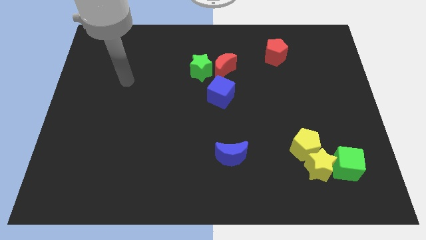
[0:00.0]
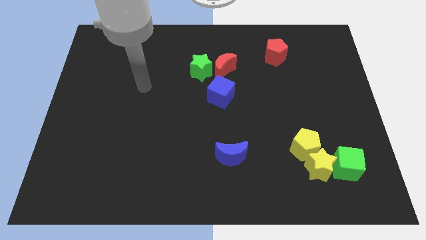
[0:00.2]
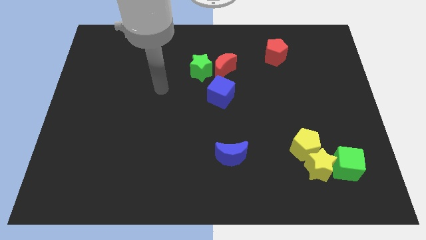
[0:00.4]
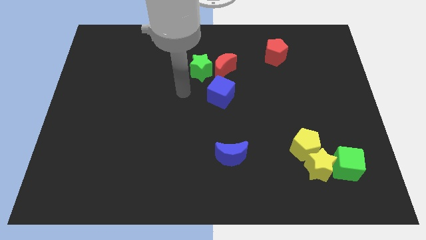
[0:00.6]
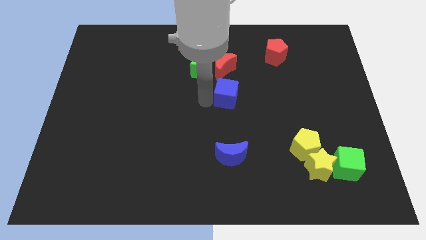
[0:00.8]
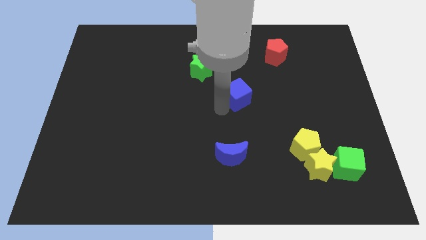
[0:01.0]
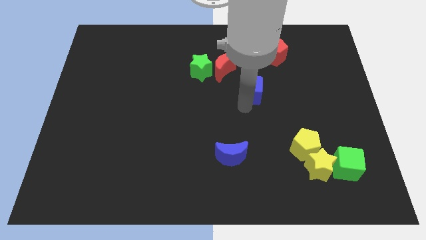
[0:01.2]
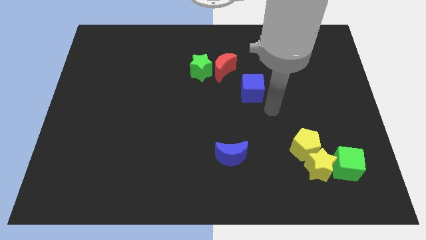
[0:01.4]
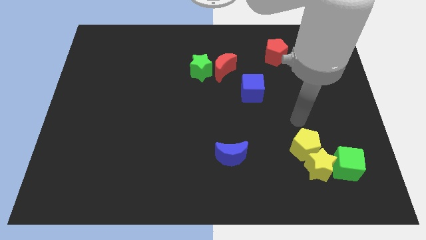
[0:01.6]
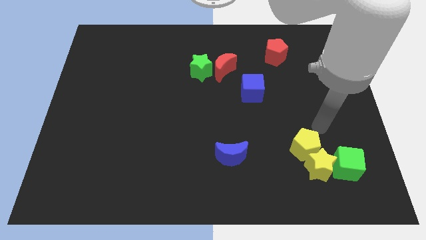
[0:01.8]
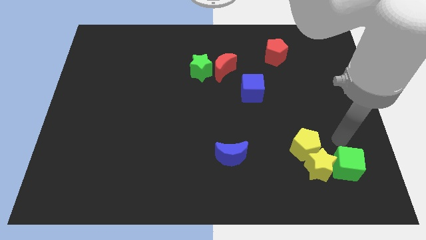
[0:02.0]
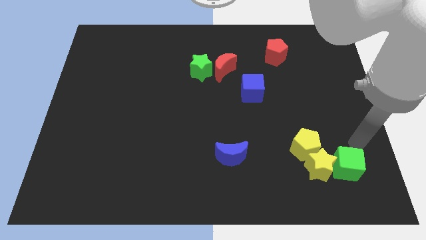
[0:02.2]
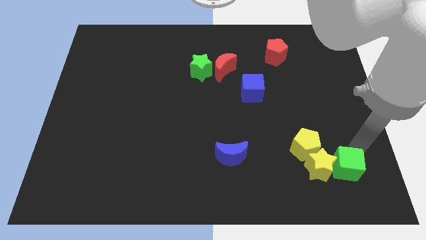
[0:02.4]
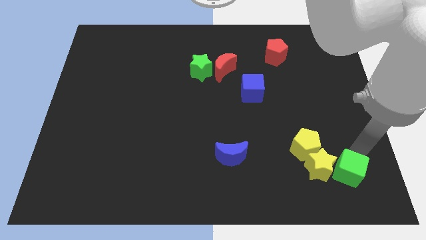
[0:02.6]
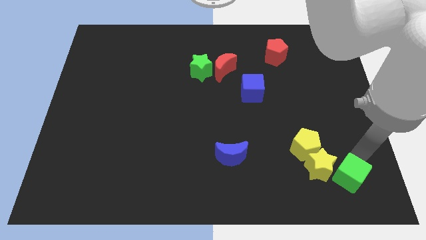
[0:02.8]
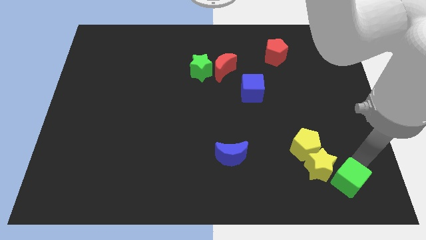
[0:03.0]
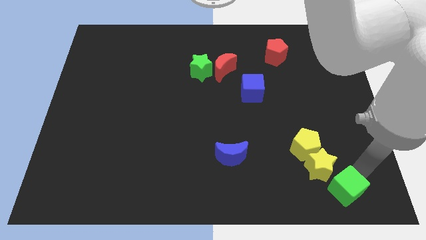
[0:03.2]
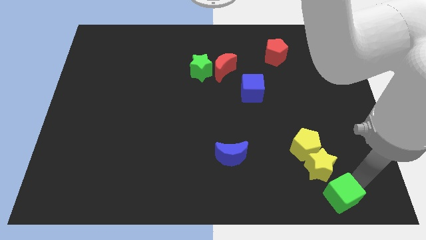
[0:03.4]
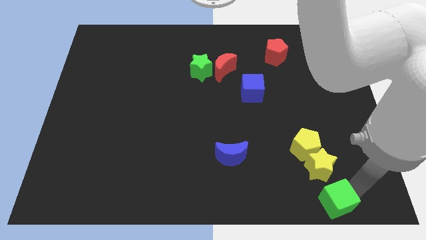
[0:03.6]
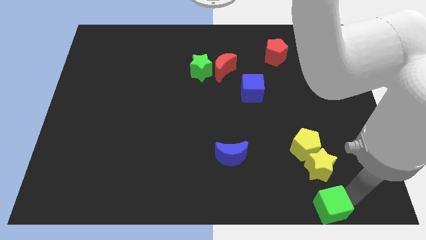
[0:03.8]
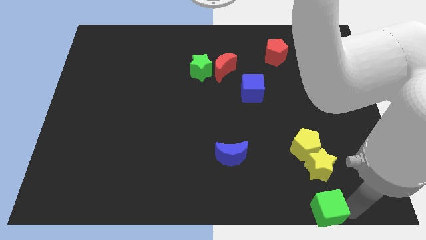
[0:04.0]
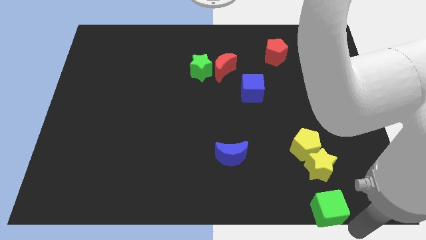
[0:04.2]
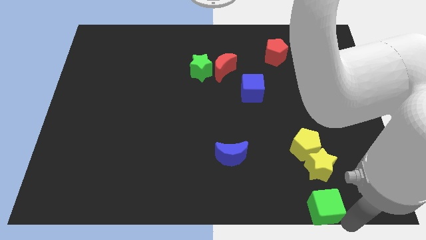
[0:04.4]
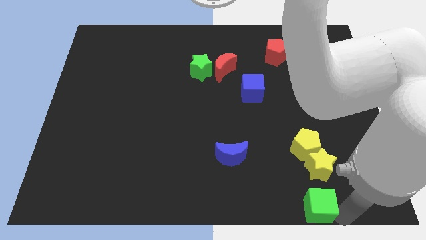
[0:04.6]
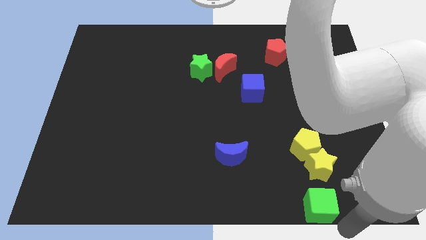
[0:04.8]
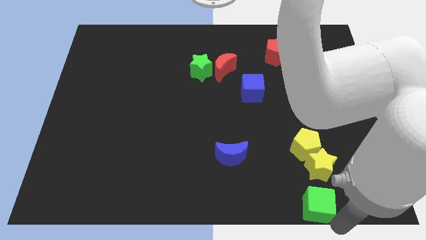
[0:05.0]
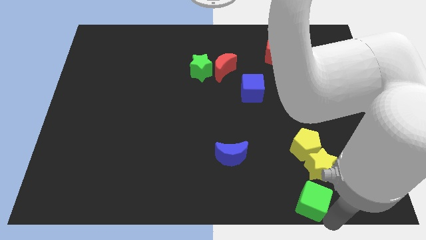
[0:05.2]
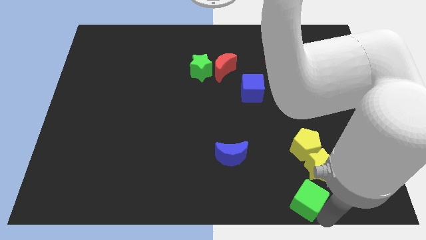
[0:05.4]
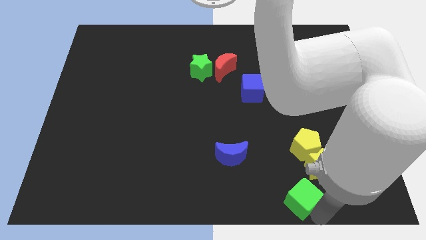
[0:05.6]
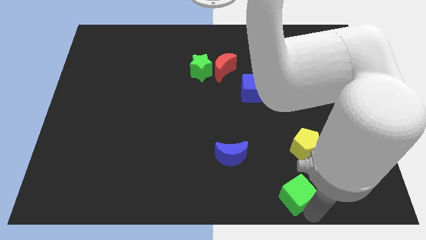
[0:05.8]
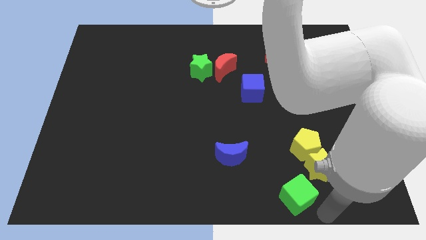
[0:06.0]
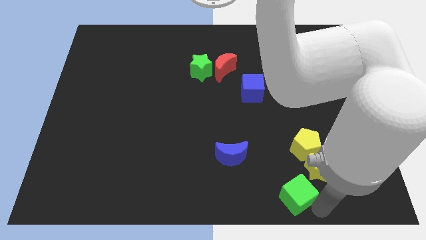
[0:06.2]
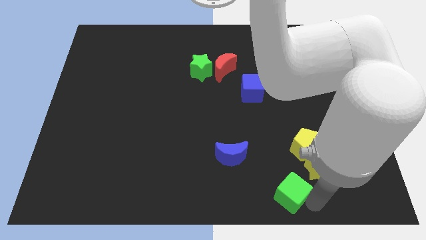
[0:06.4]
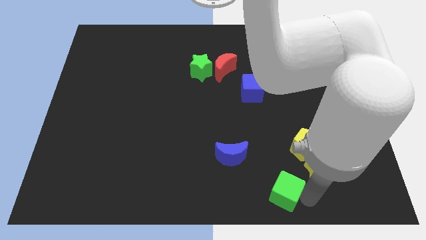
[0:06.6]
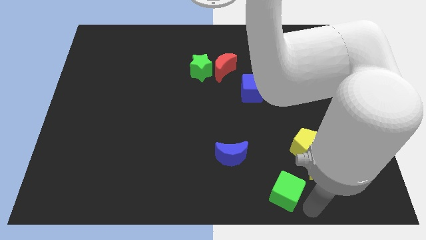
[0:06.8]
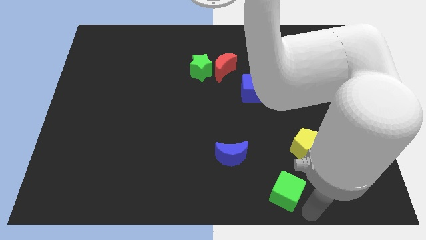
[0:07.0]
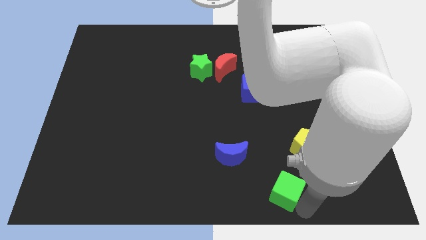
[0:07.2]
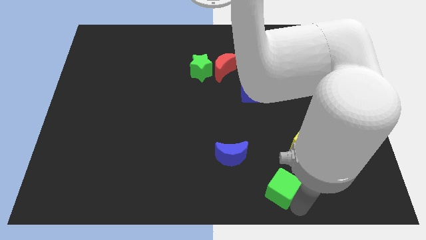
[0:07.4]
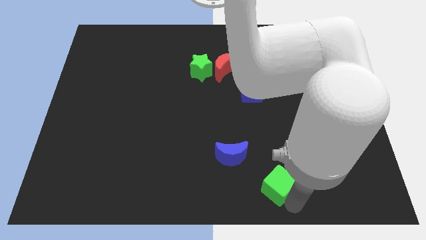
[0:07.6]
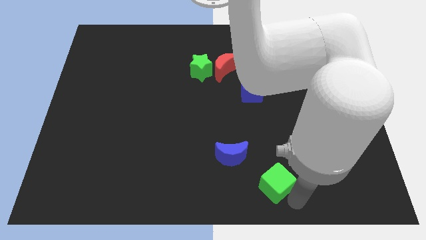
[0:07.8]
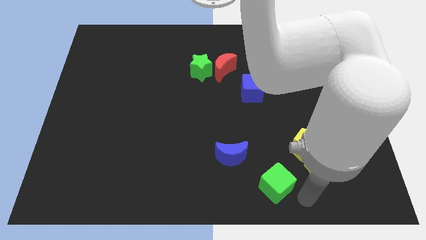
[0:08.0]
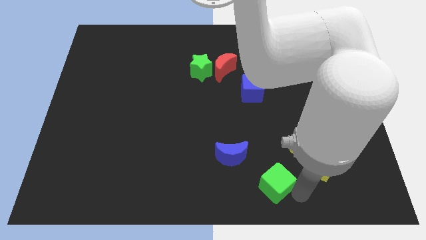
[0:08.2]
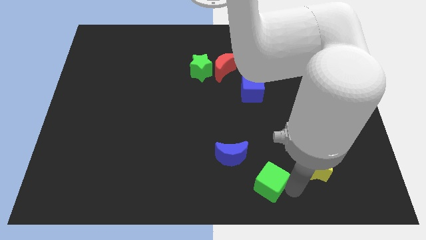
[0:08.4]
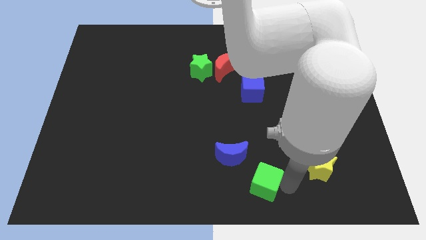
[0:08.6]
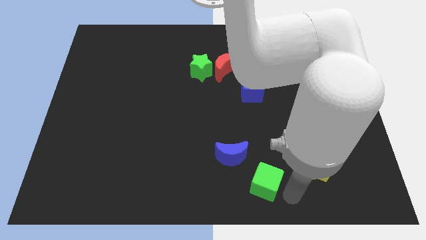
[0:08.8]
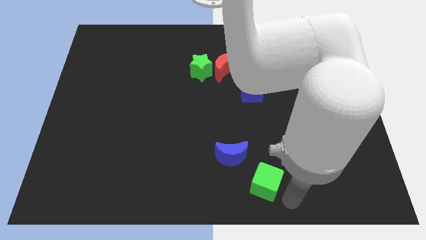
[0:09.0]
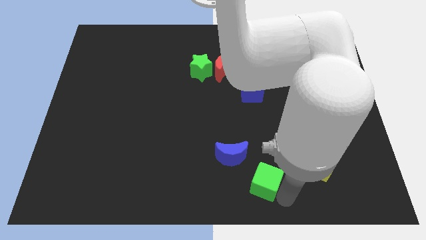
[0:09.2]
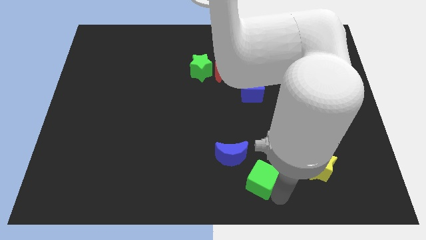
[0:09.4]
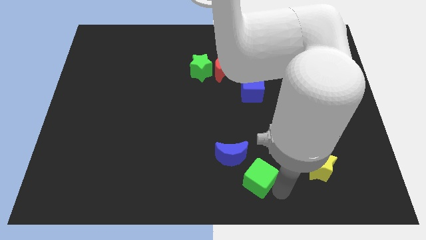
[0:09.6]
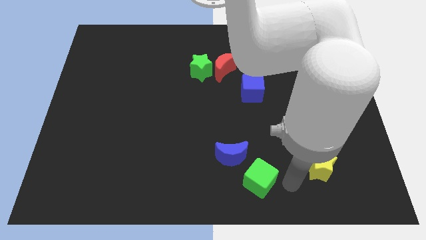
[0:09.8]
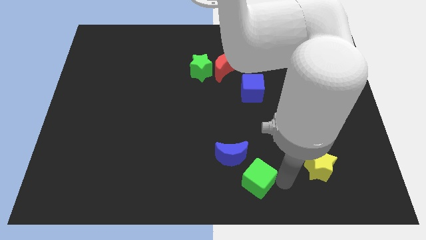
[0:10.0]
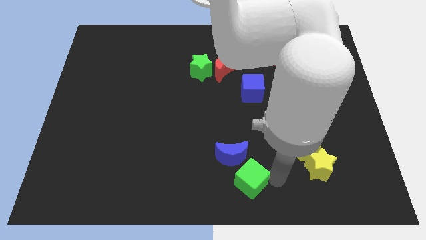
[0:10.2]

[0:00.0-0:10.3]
push the green cube left

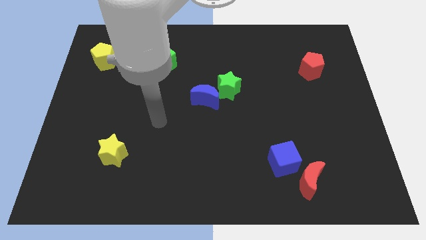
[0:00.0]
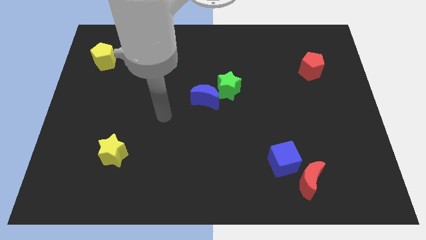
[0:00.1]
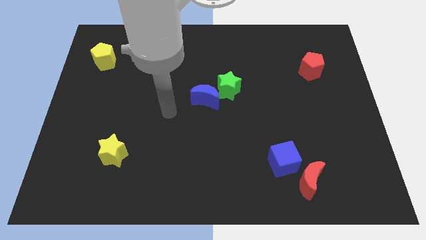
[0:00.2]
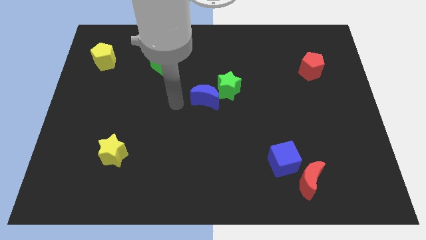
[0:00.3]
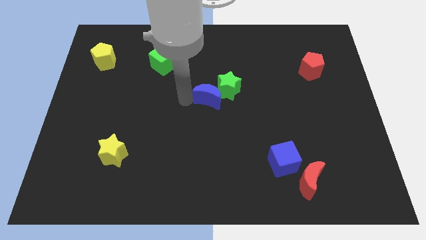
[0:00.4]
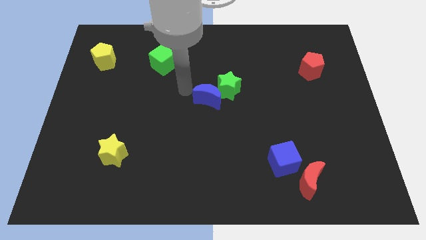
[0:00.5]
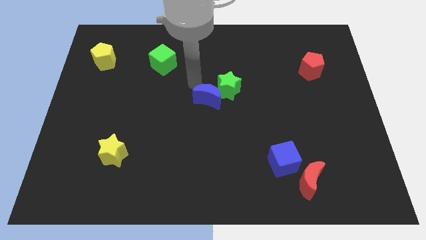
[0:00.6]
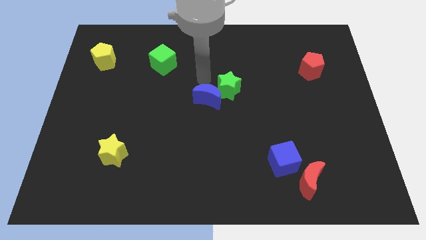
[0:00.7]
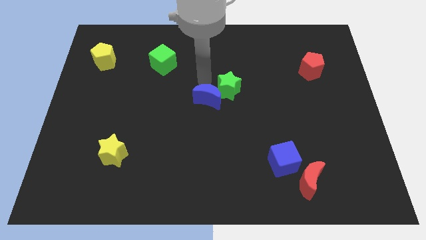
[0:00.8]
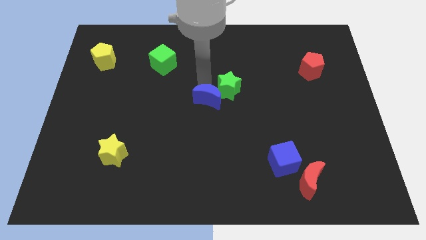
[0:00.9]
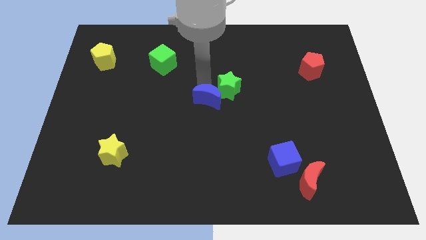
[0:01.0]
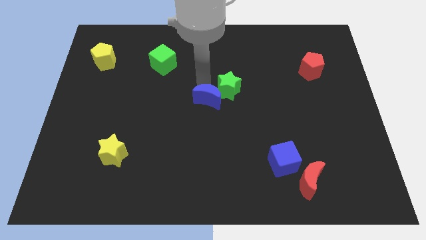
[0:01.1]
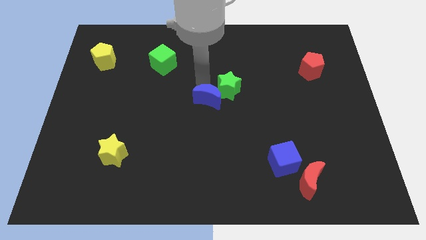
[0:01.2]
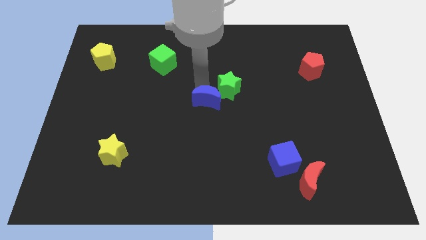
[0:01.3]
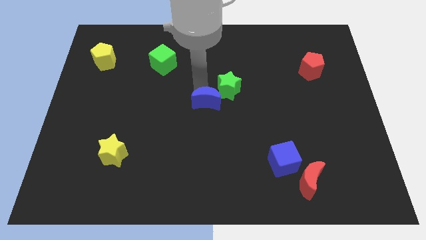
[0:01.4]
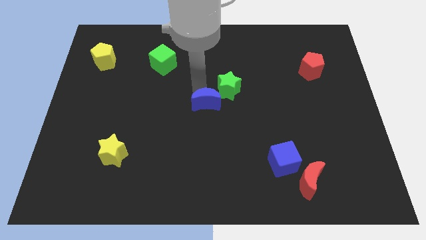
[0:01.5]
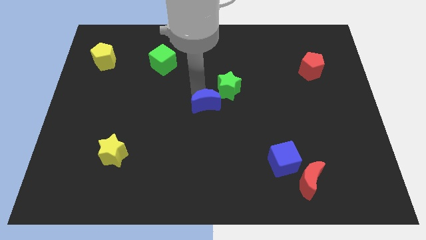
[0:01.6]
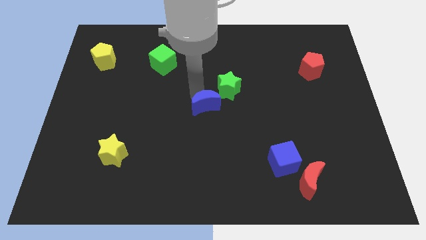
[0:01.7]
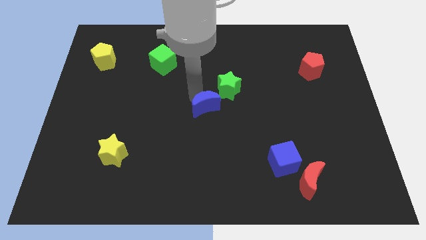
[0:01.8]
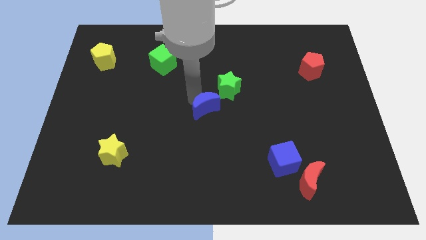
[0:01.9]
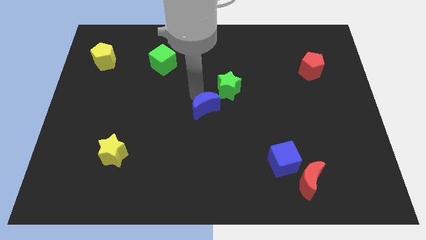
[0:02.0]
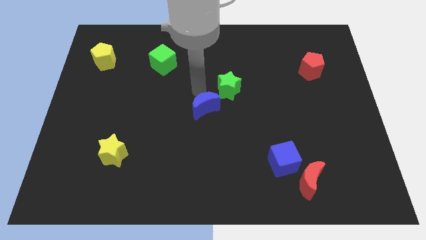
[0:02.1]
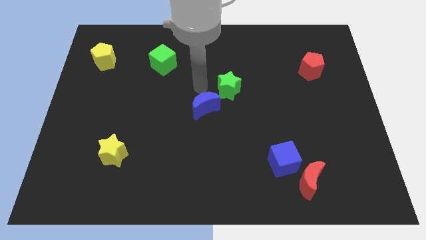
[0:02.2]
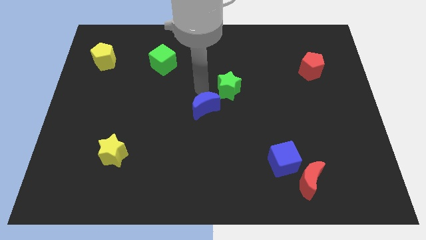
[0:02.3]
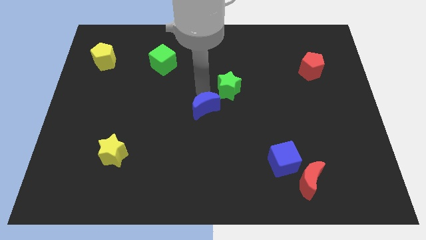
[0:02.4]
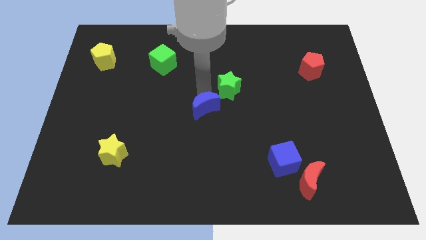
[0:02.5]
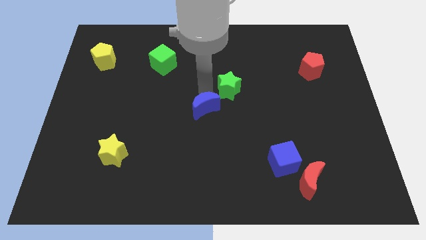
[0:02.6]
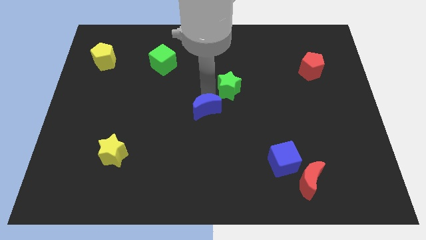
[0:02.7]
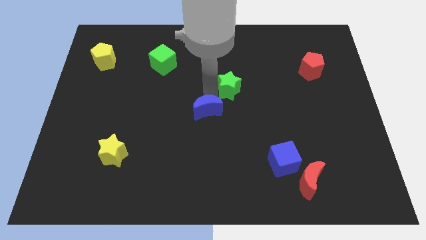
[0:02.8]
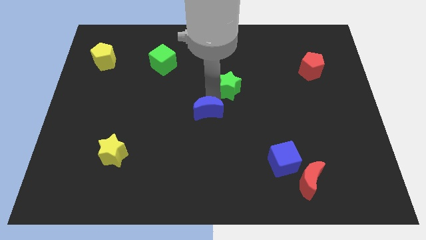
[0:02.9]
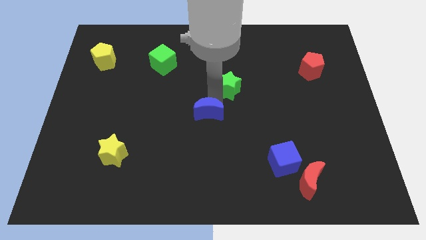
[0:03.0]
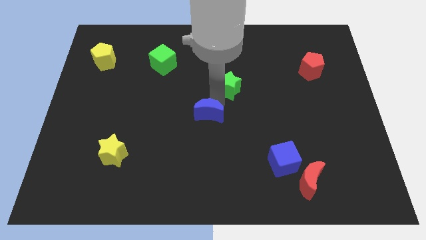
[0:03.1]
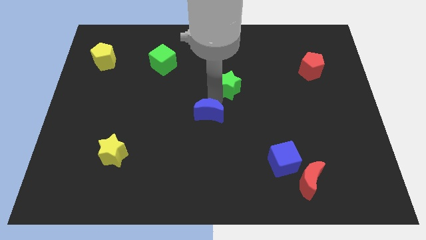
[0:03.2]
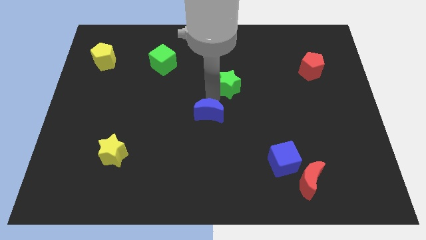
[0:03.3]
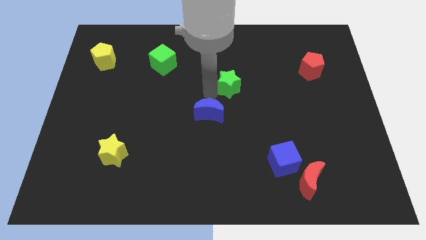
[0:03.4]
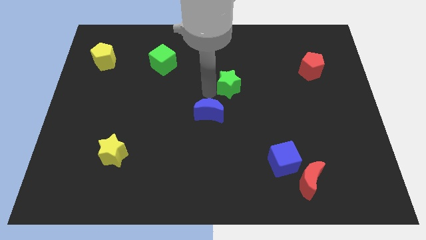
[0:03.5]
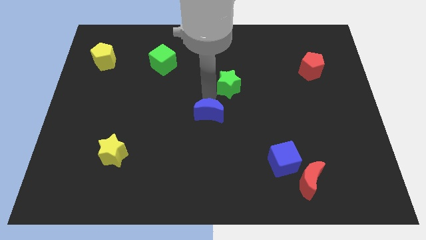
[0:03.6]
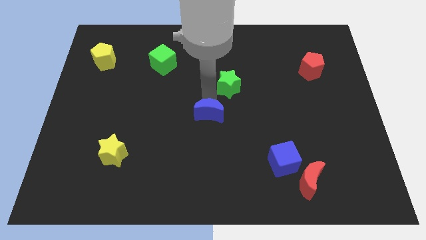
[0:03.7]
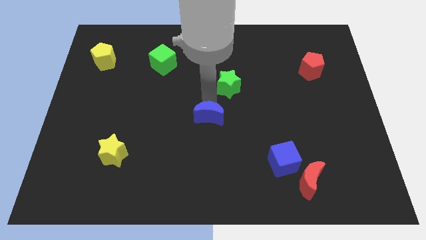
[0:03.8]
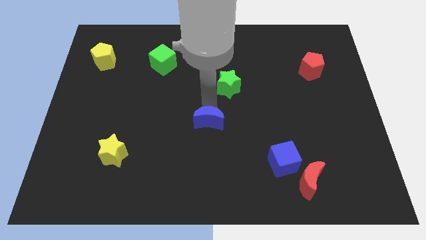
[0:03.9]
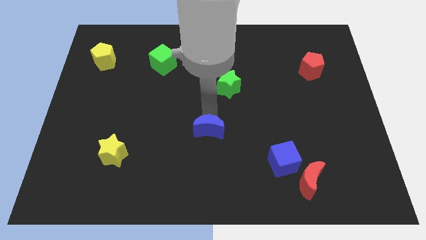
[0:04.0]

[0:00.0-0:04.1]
move the blue moon a little bit down
